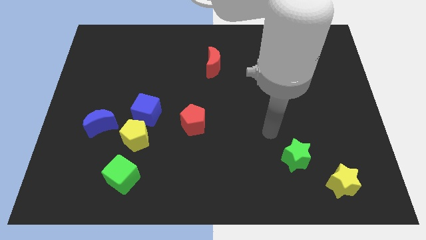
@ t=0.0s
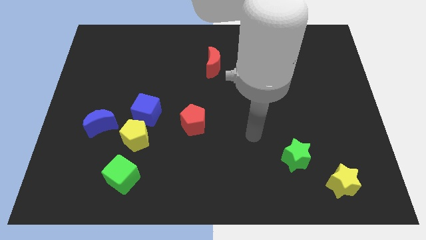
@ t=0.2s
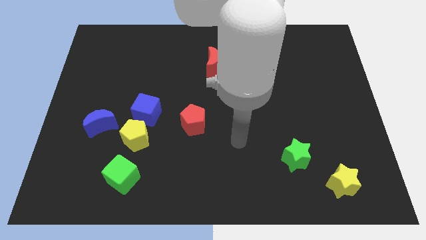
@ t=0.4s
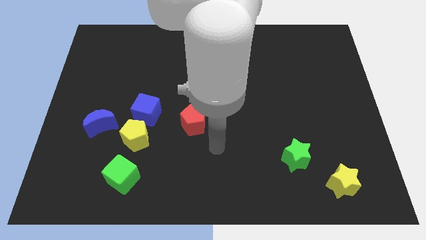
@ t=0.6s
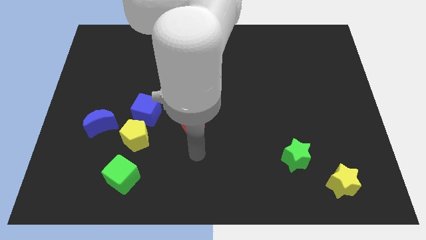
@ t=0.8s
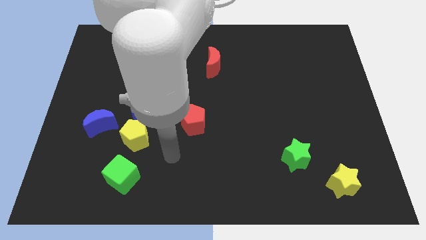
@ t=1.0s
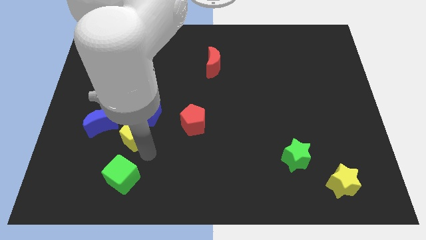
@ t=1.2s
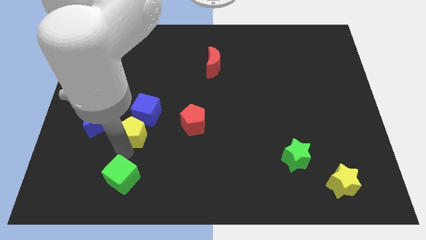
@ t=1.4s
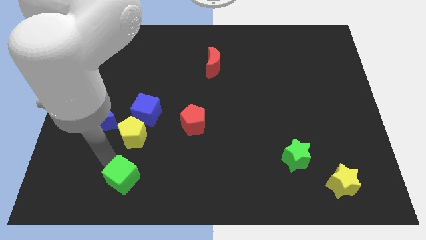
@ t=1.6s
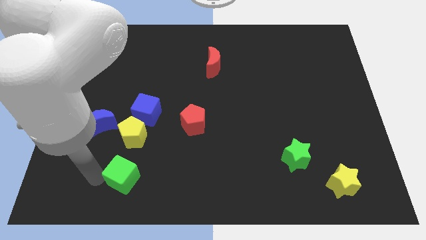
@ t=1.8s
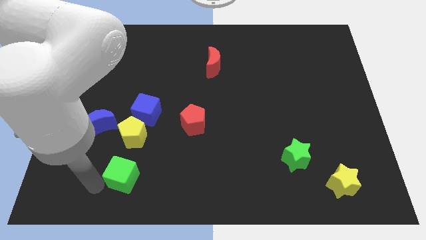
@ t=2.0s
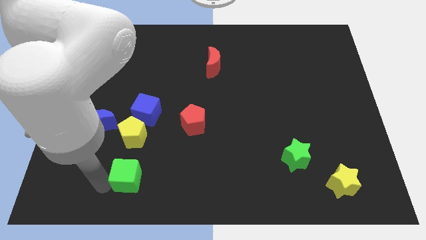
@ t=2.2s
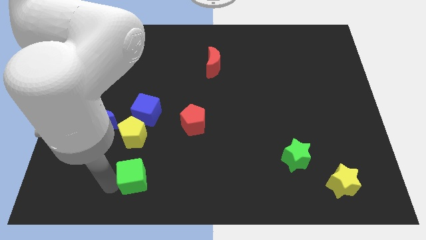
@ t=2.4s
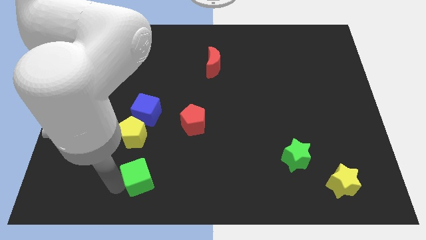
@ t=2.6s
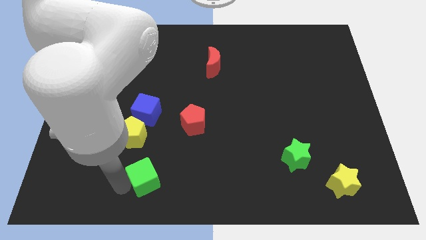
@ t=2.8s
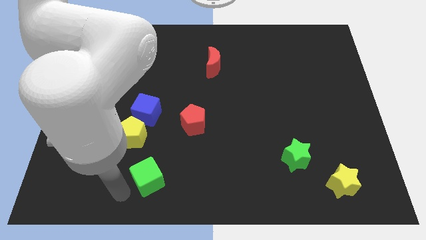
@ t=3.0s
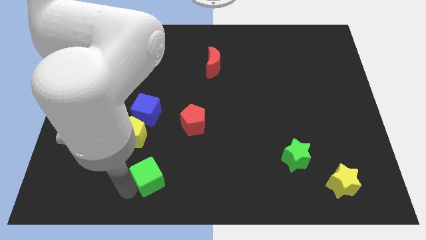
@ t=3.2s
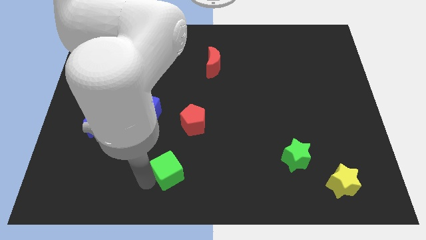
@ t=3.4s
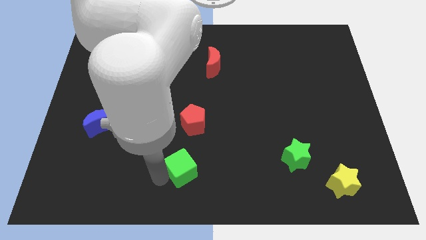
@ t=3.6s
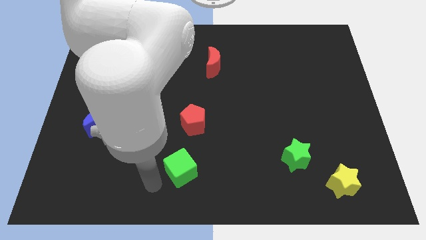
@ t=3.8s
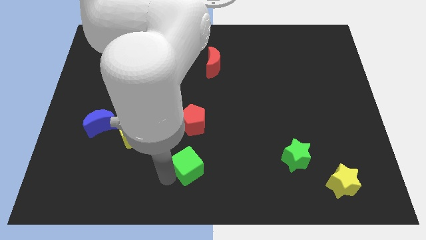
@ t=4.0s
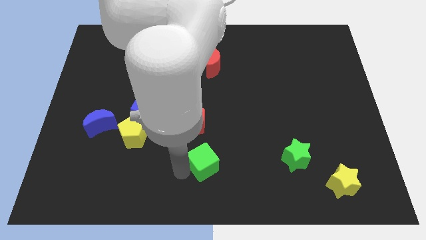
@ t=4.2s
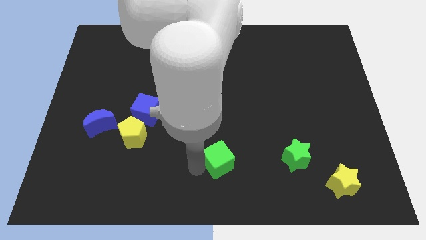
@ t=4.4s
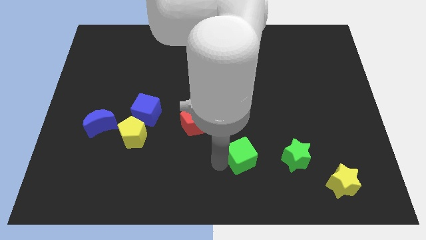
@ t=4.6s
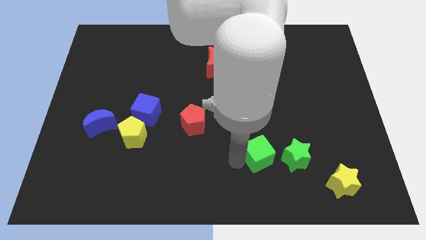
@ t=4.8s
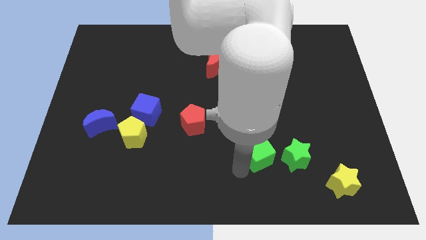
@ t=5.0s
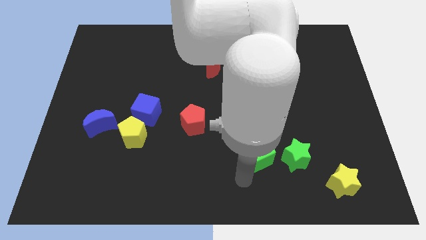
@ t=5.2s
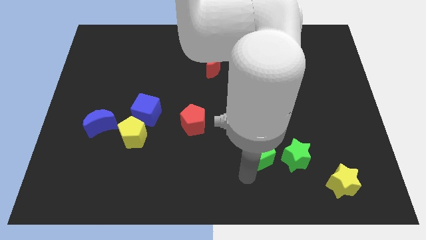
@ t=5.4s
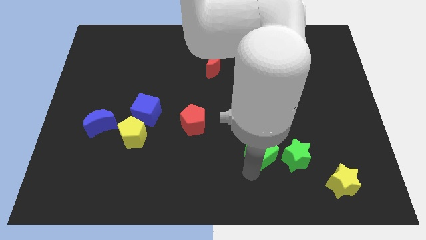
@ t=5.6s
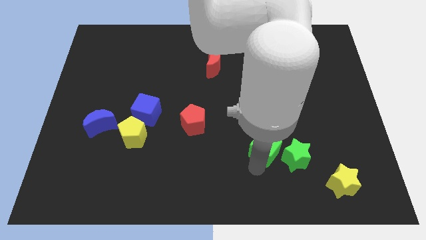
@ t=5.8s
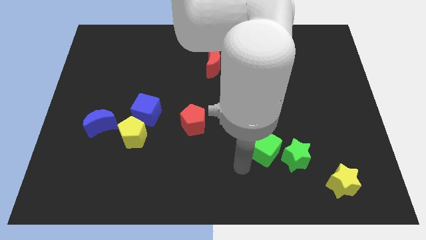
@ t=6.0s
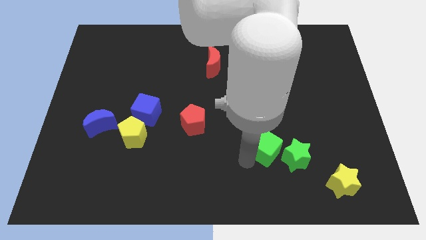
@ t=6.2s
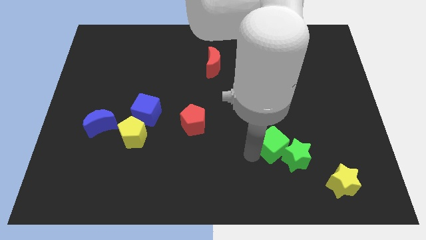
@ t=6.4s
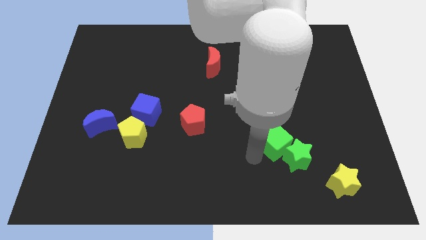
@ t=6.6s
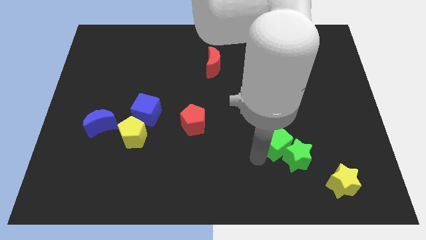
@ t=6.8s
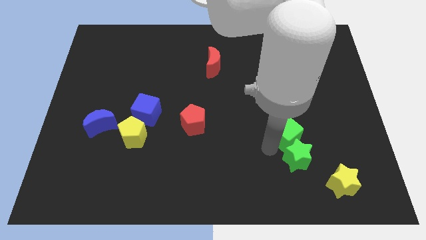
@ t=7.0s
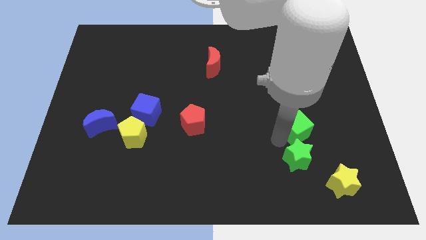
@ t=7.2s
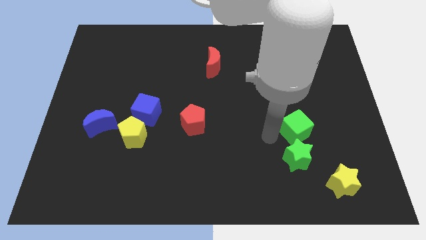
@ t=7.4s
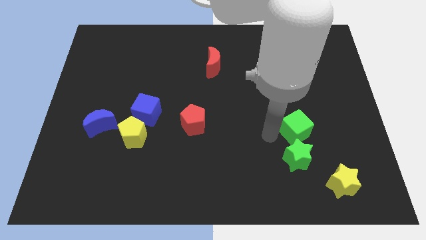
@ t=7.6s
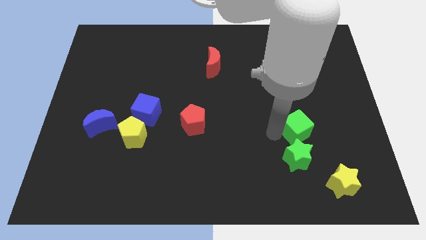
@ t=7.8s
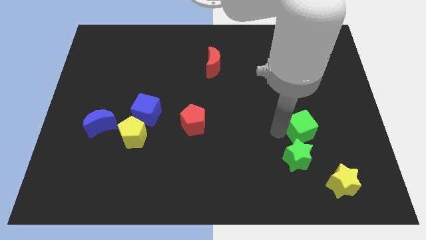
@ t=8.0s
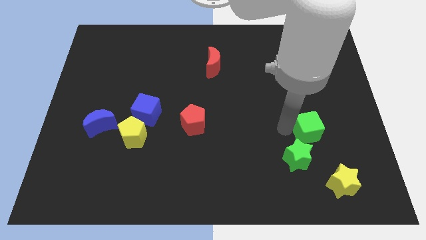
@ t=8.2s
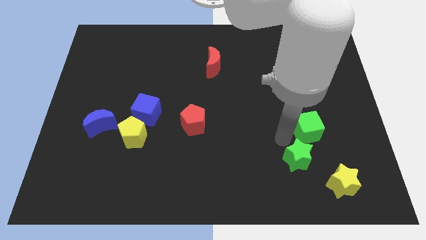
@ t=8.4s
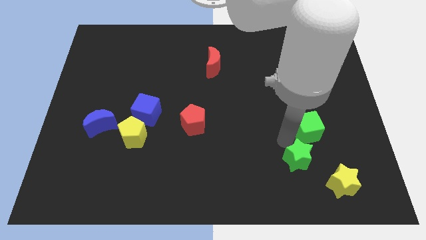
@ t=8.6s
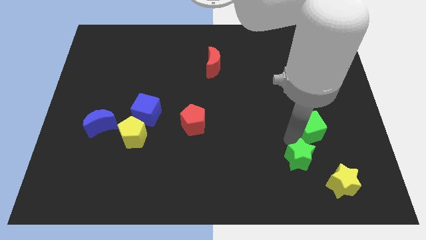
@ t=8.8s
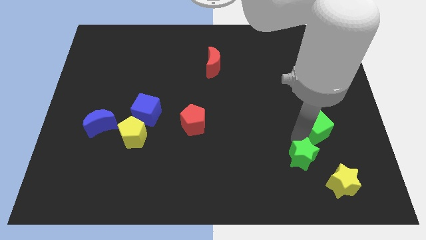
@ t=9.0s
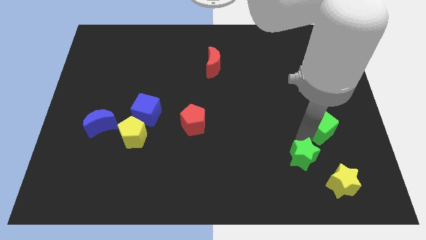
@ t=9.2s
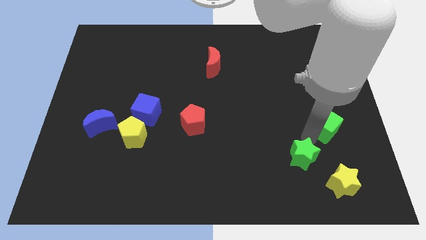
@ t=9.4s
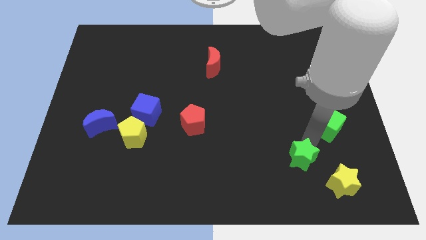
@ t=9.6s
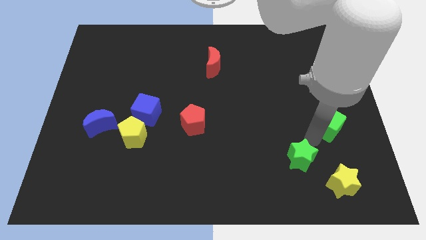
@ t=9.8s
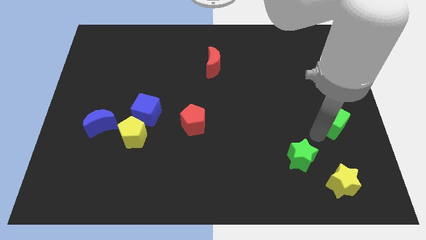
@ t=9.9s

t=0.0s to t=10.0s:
push the green cube to the right side of the board

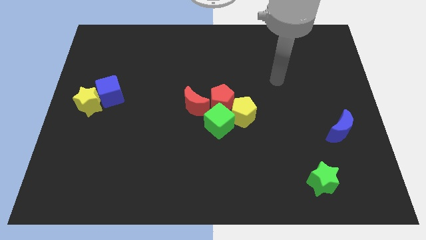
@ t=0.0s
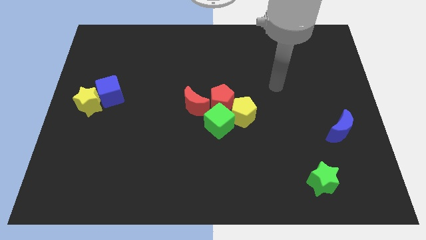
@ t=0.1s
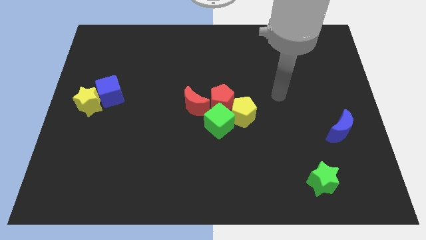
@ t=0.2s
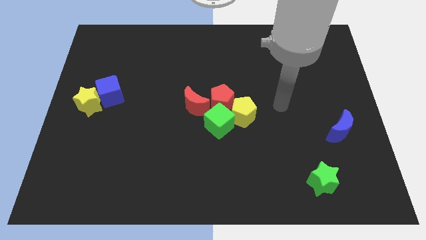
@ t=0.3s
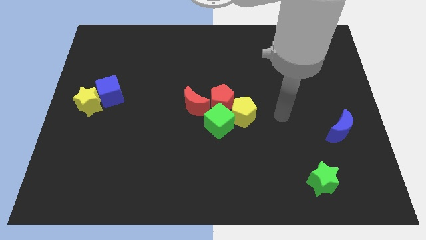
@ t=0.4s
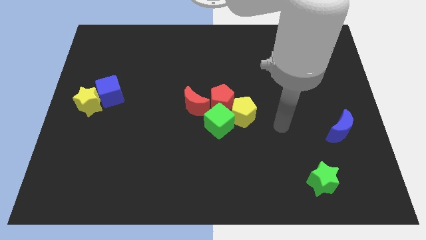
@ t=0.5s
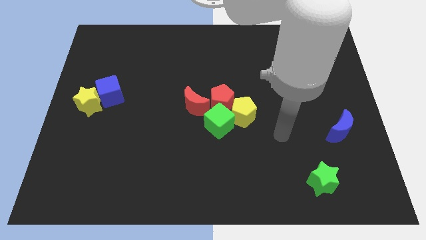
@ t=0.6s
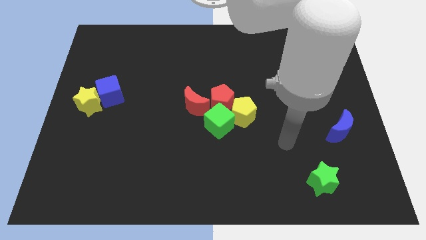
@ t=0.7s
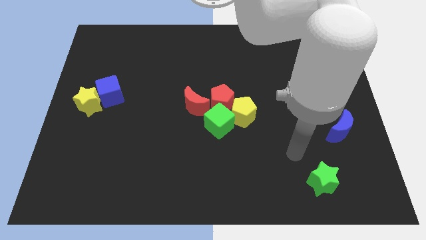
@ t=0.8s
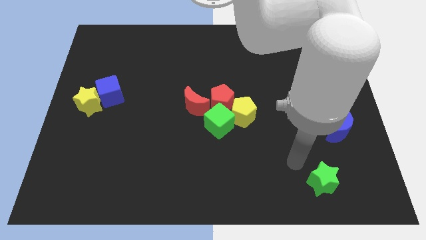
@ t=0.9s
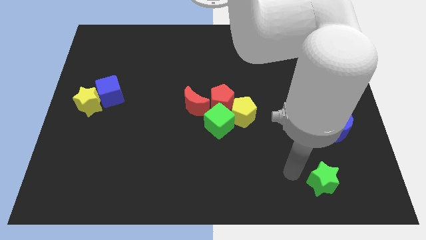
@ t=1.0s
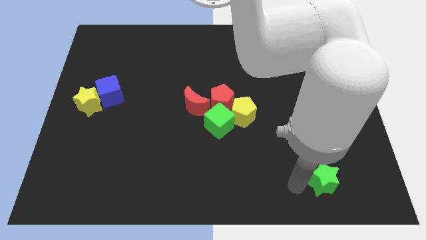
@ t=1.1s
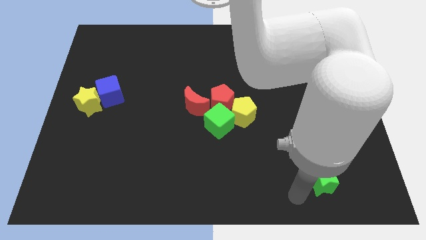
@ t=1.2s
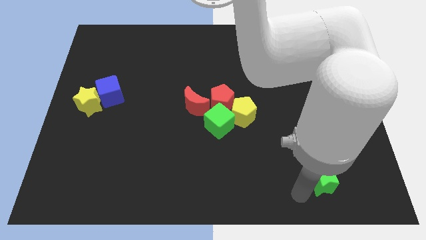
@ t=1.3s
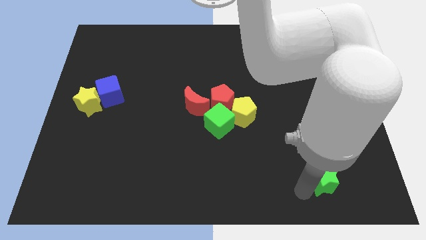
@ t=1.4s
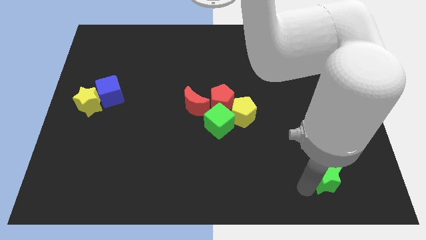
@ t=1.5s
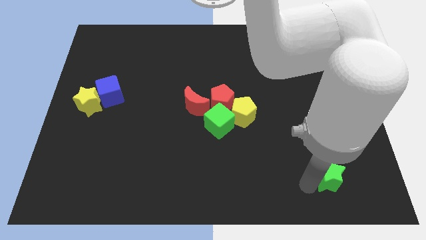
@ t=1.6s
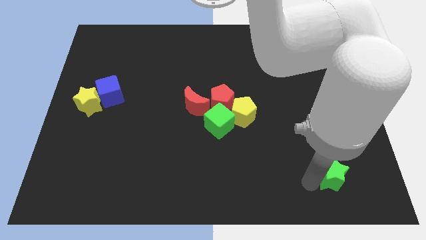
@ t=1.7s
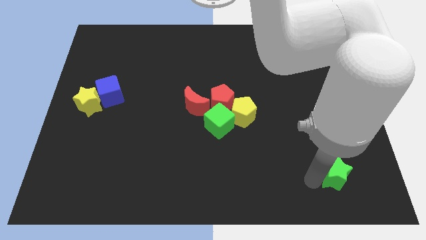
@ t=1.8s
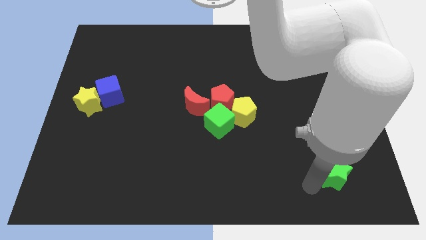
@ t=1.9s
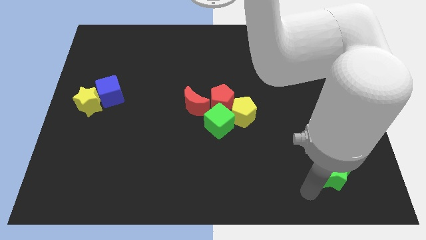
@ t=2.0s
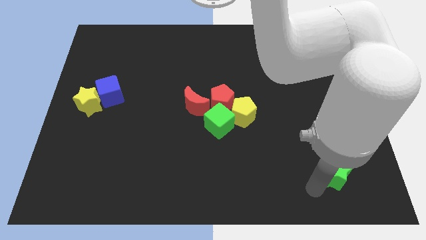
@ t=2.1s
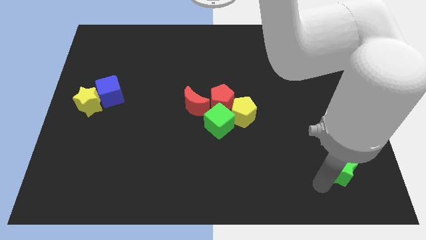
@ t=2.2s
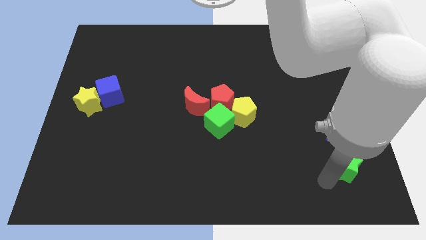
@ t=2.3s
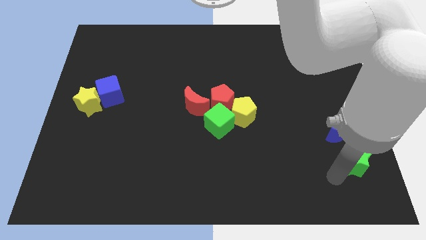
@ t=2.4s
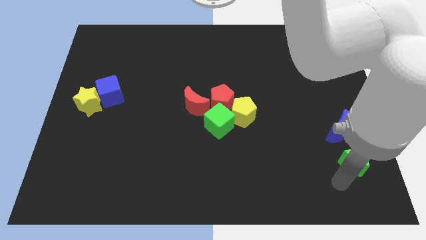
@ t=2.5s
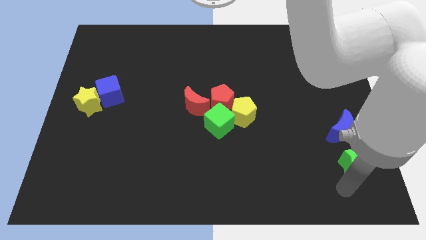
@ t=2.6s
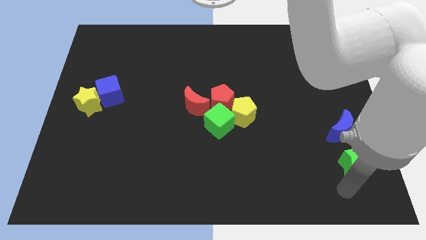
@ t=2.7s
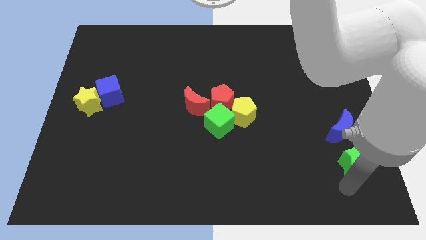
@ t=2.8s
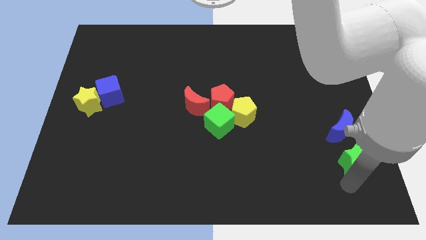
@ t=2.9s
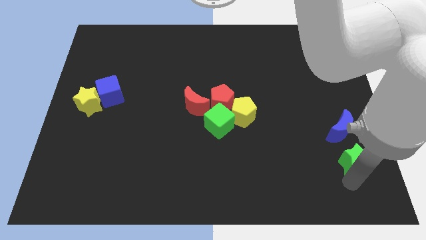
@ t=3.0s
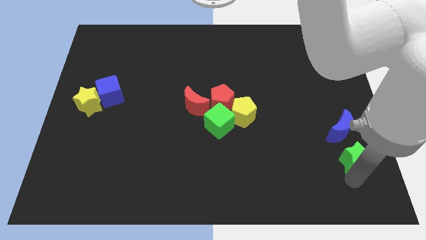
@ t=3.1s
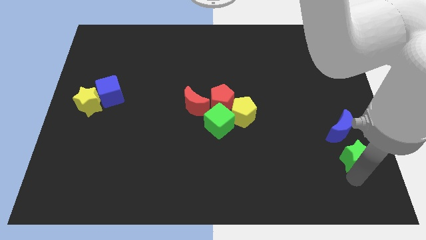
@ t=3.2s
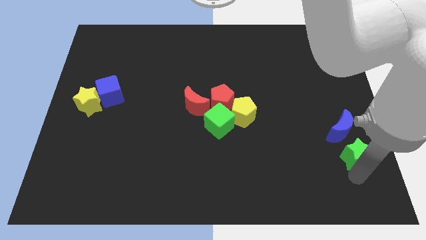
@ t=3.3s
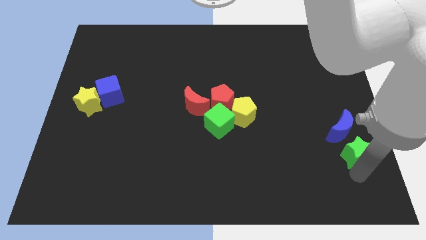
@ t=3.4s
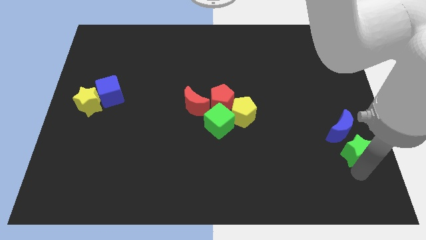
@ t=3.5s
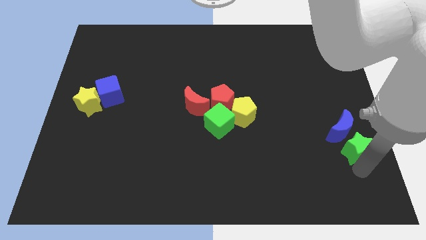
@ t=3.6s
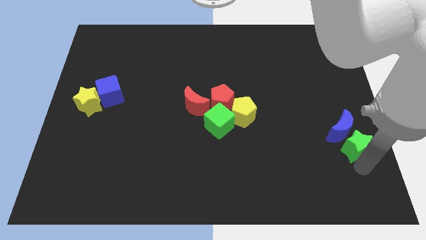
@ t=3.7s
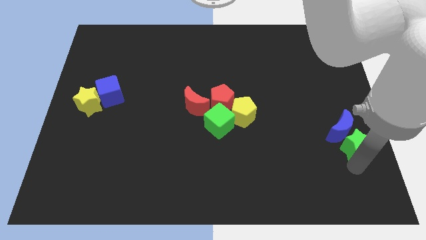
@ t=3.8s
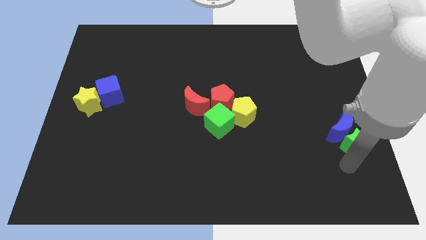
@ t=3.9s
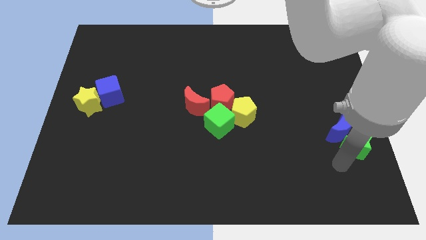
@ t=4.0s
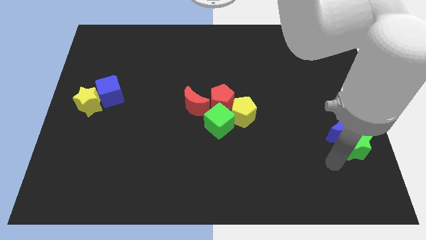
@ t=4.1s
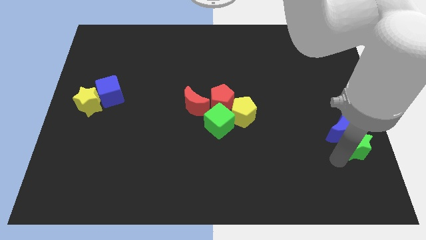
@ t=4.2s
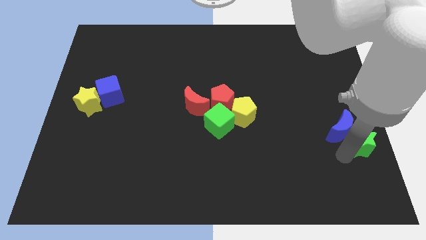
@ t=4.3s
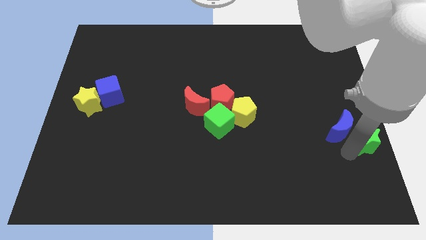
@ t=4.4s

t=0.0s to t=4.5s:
slide the green star to the center right
